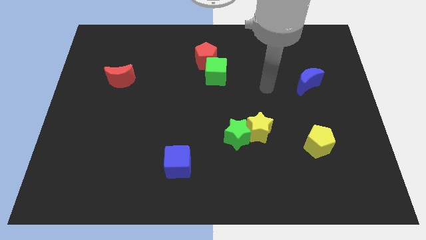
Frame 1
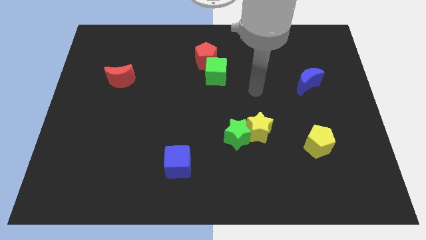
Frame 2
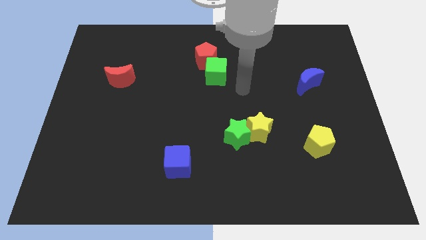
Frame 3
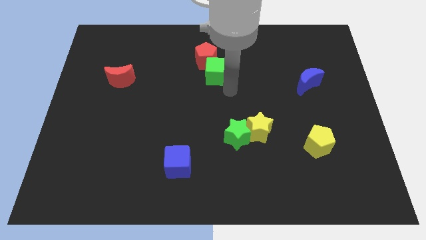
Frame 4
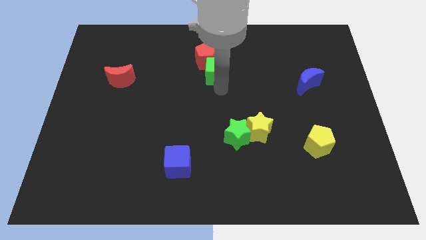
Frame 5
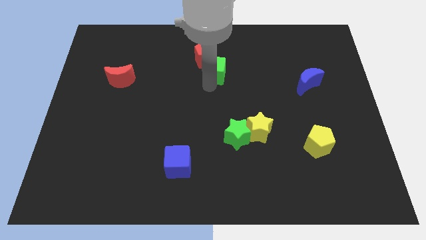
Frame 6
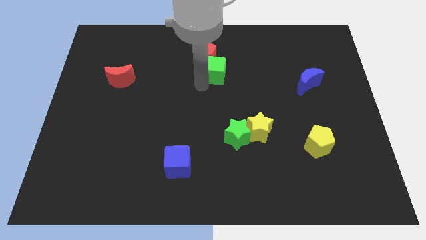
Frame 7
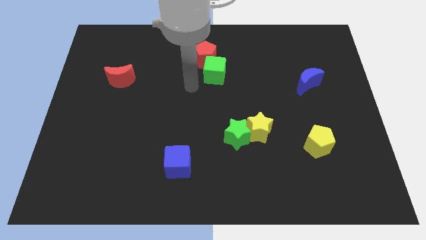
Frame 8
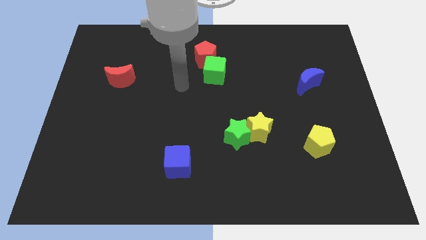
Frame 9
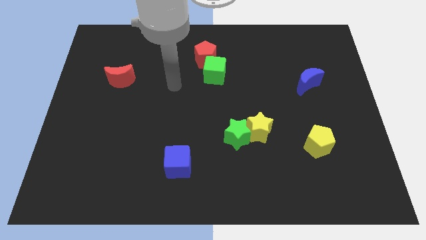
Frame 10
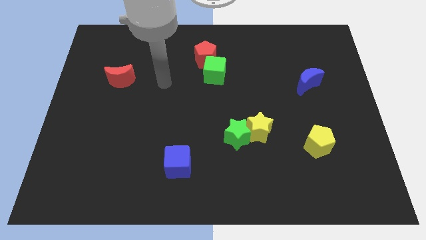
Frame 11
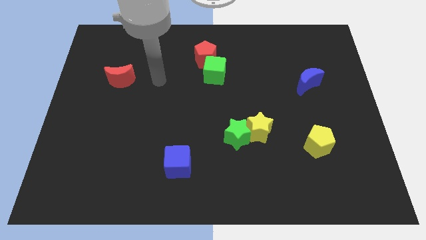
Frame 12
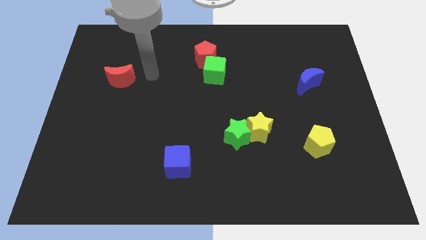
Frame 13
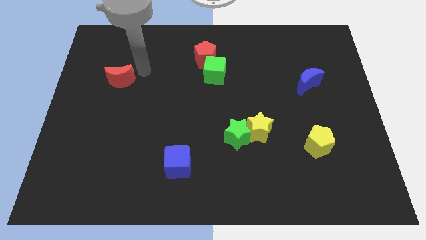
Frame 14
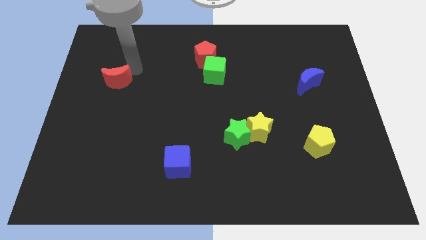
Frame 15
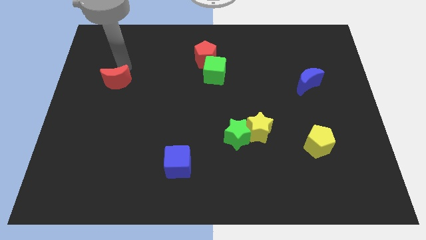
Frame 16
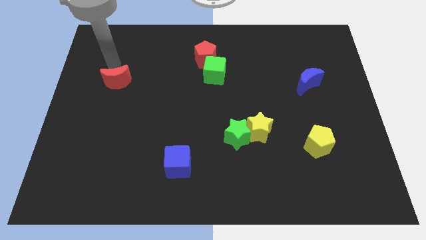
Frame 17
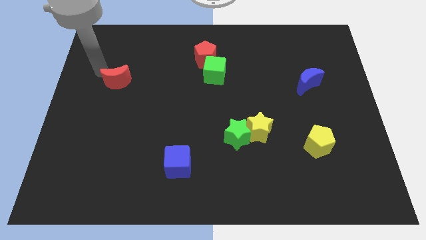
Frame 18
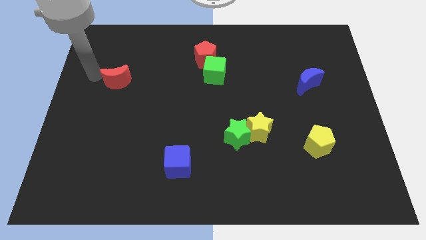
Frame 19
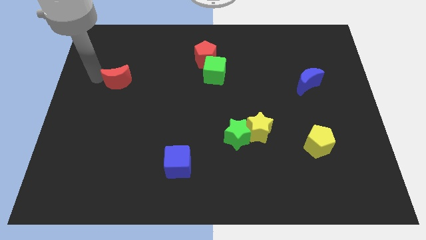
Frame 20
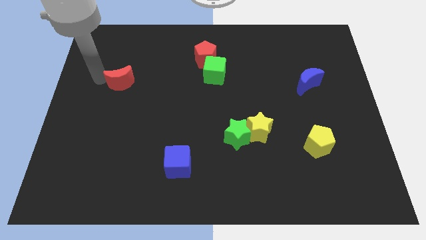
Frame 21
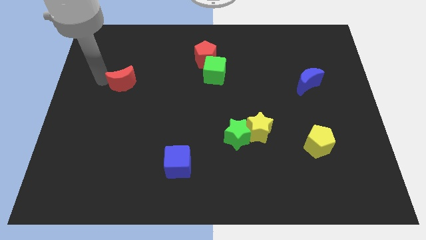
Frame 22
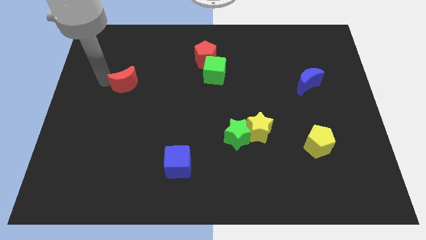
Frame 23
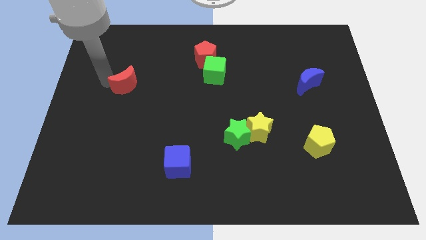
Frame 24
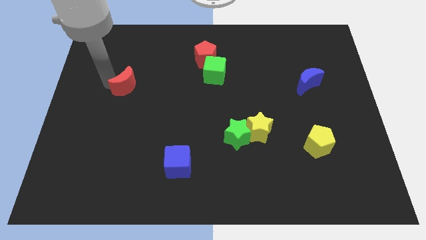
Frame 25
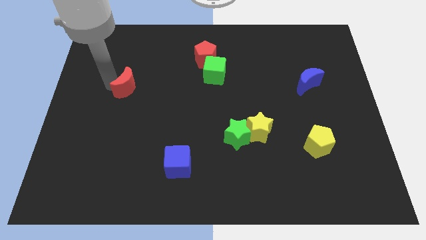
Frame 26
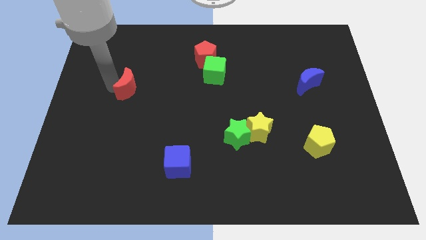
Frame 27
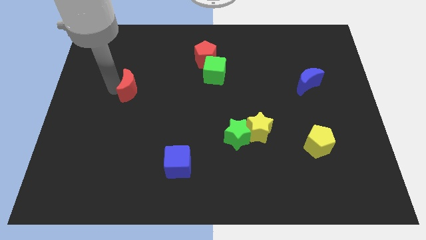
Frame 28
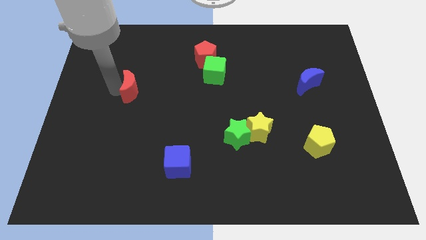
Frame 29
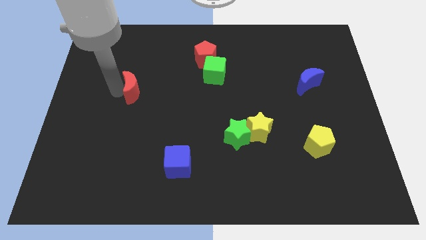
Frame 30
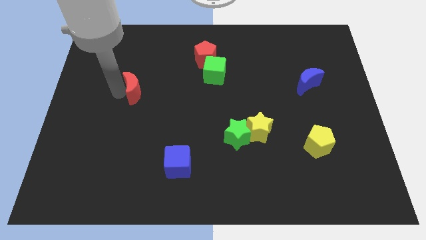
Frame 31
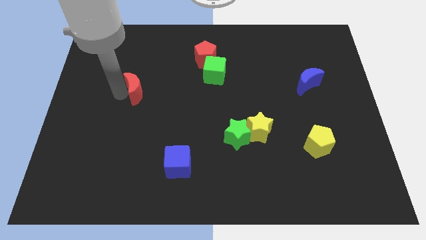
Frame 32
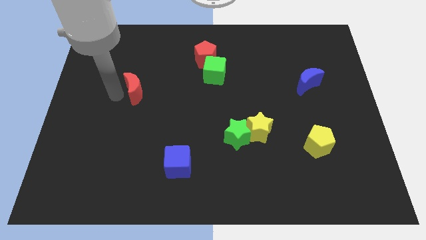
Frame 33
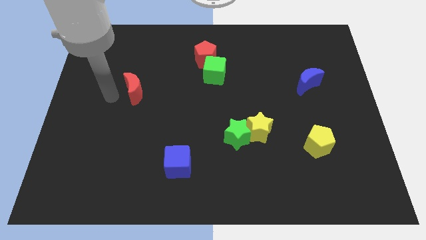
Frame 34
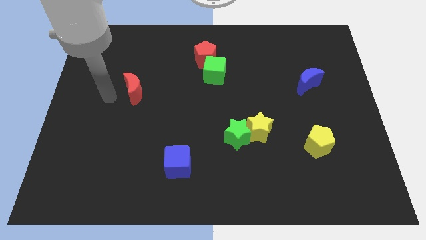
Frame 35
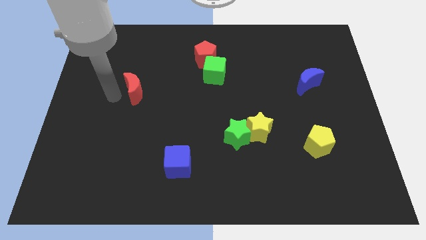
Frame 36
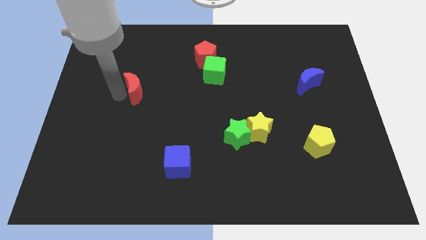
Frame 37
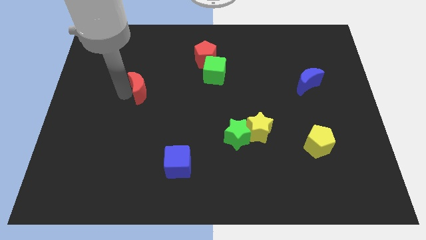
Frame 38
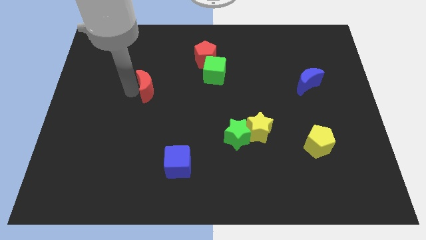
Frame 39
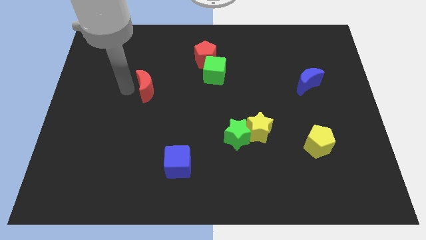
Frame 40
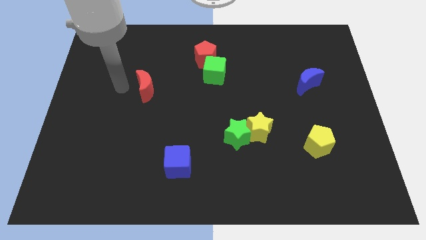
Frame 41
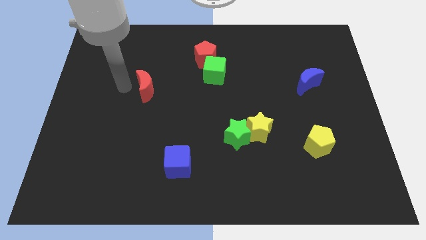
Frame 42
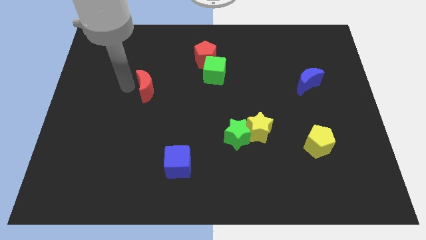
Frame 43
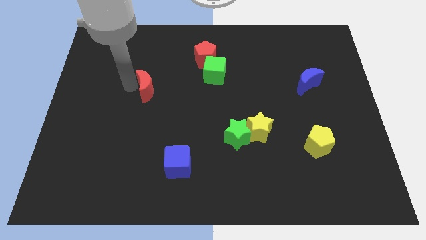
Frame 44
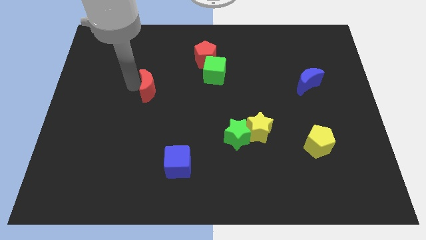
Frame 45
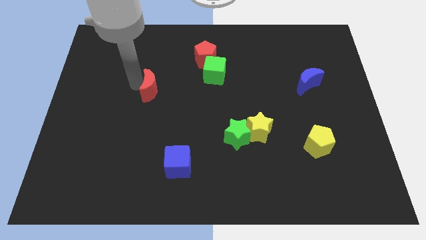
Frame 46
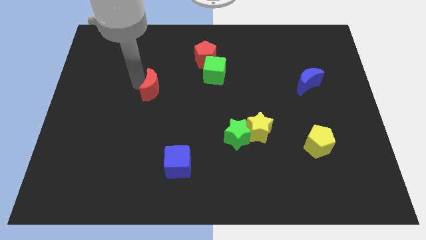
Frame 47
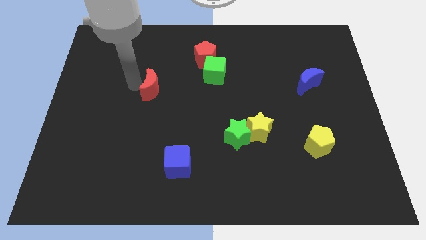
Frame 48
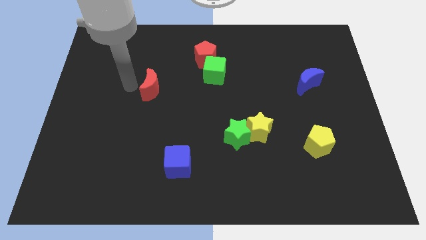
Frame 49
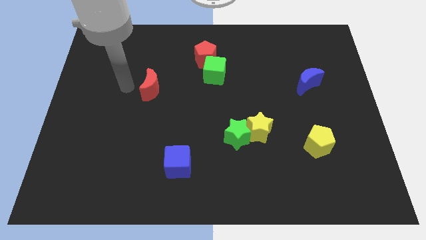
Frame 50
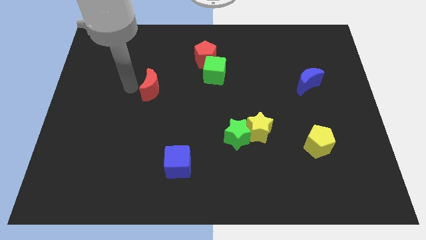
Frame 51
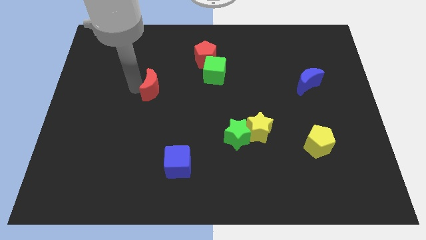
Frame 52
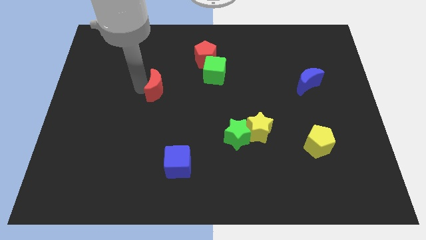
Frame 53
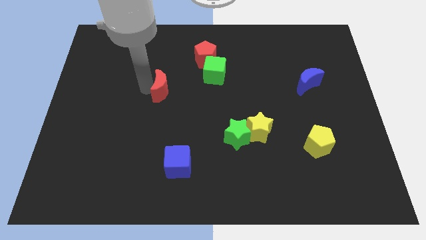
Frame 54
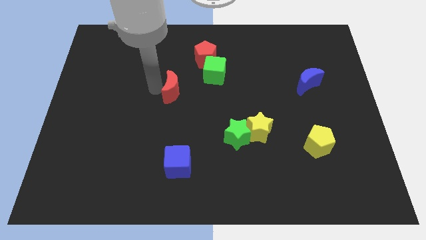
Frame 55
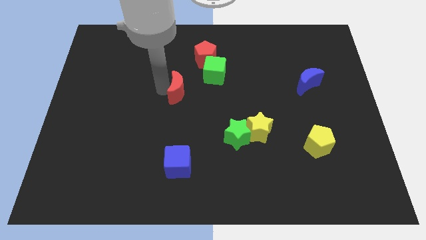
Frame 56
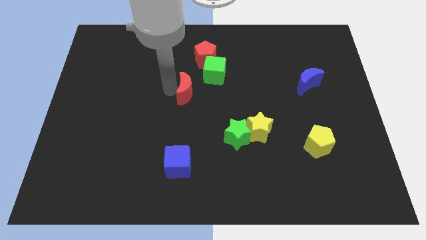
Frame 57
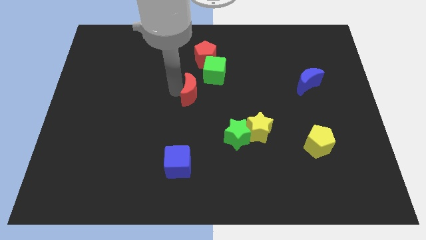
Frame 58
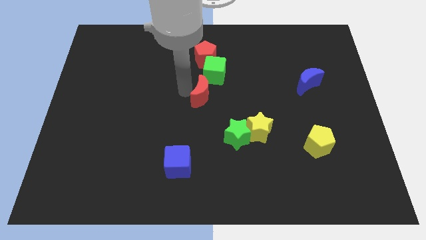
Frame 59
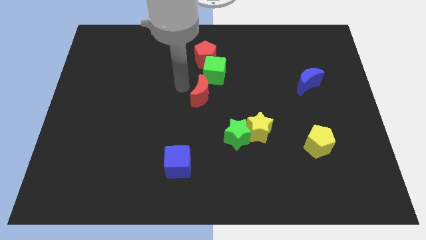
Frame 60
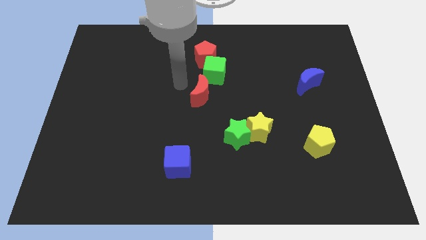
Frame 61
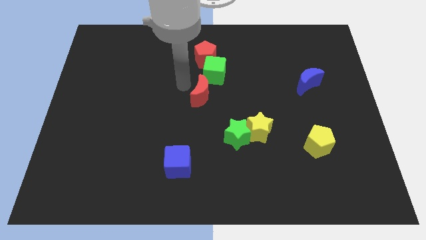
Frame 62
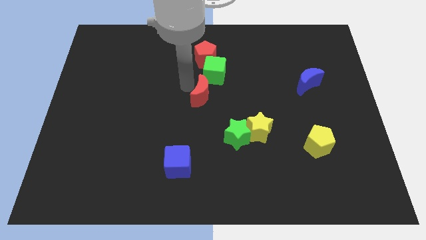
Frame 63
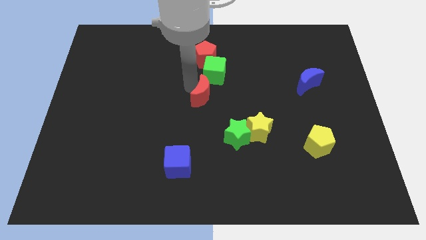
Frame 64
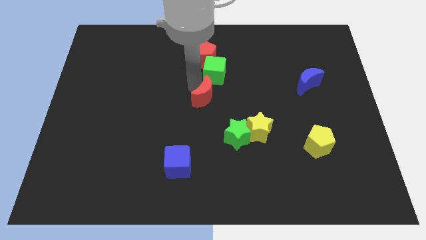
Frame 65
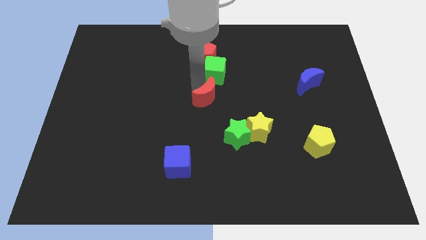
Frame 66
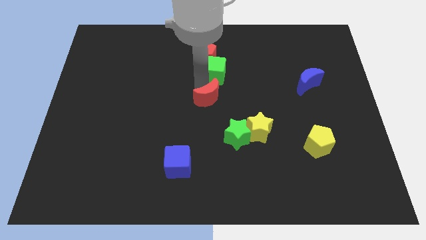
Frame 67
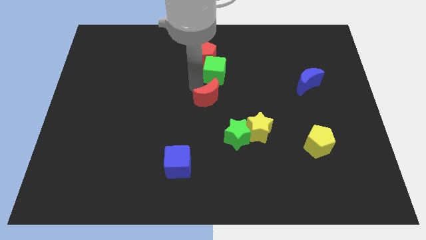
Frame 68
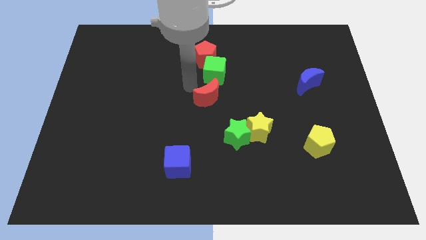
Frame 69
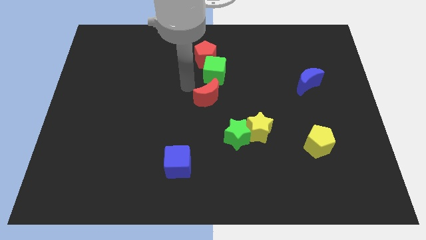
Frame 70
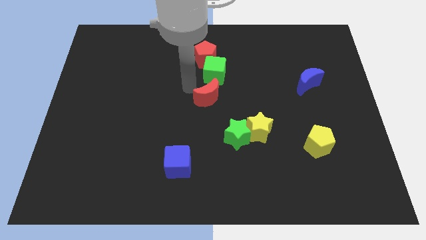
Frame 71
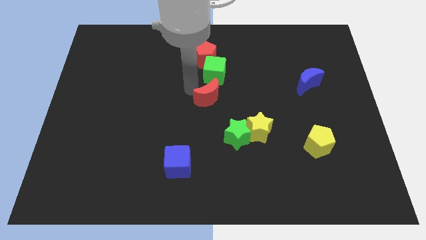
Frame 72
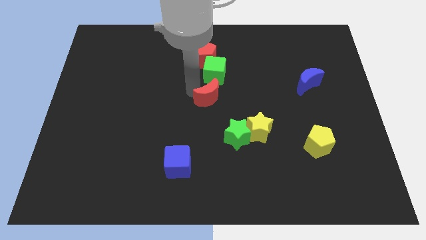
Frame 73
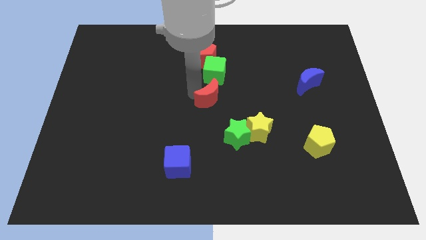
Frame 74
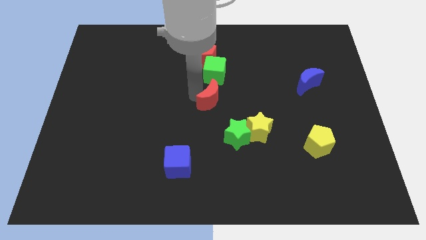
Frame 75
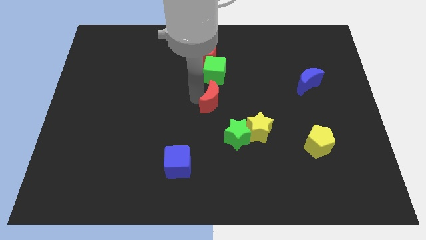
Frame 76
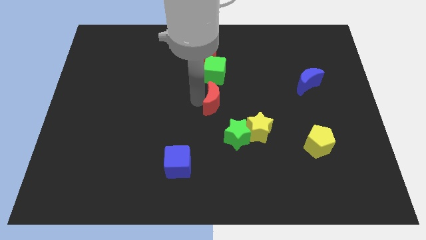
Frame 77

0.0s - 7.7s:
slide the red moon diagonally up and to the left of the yellow star
